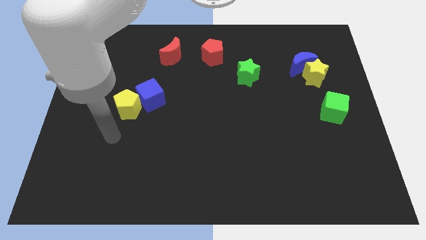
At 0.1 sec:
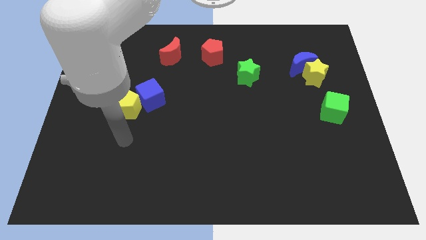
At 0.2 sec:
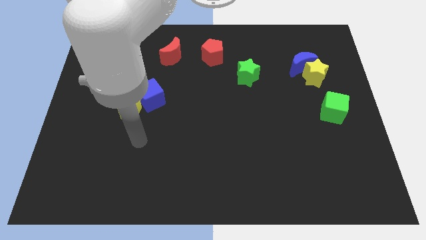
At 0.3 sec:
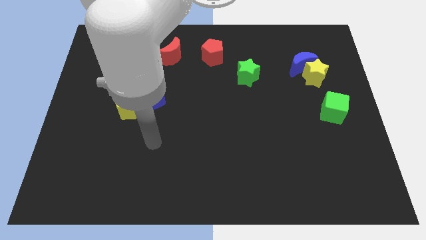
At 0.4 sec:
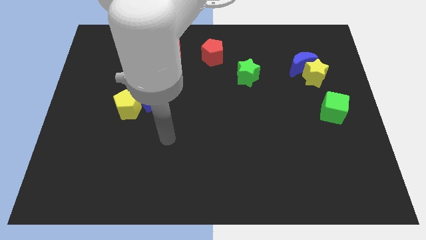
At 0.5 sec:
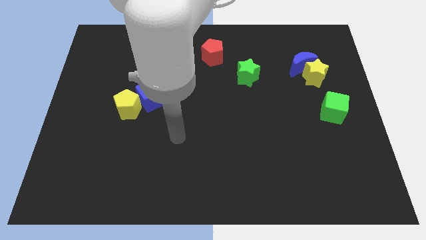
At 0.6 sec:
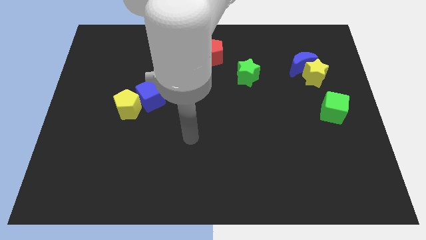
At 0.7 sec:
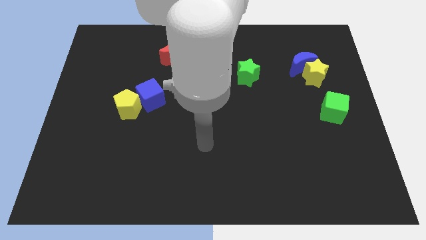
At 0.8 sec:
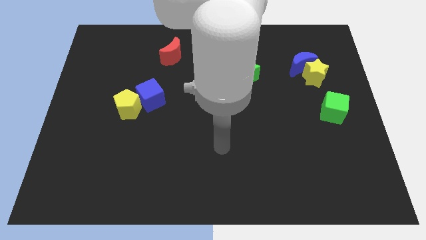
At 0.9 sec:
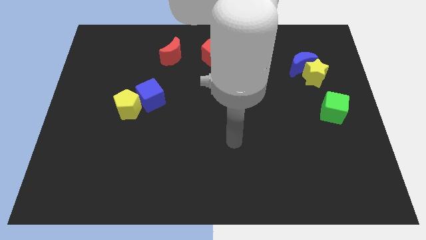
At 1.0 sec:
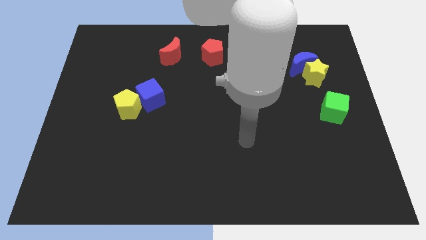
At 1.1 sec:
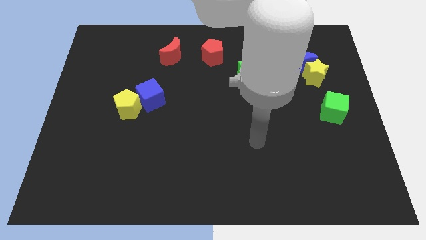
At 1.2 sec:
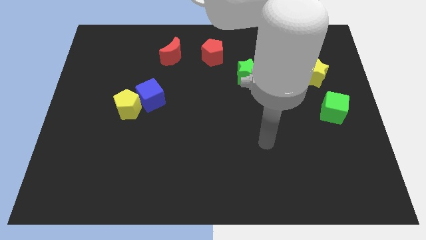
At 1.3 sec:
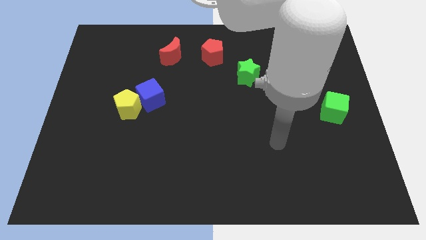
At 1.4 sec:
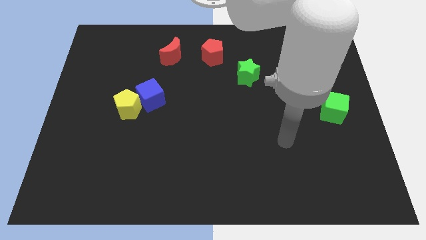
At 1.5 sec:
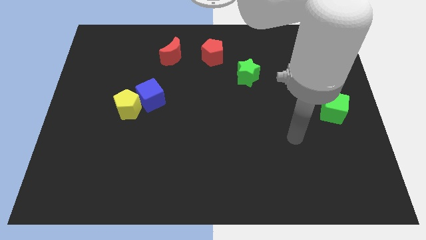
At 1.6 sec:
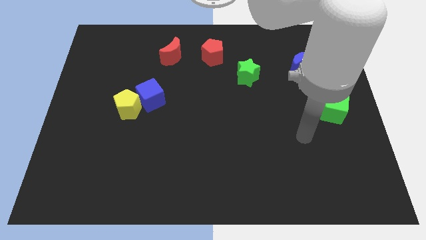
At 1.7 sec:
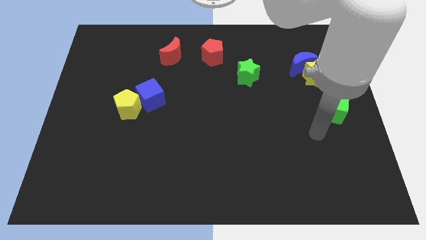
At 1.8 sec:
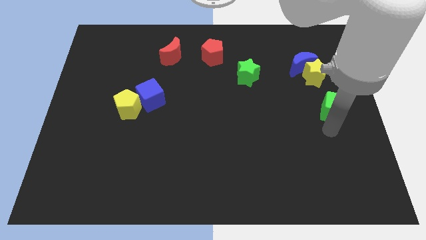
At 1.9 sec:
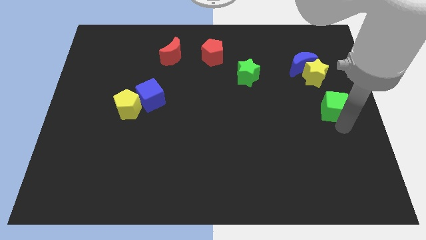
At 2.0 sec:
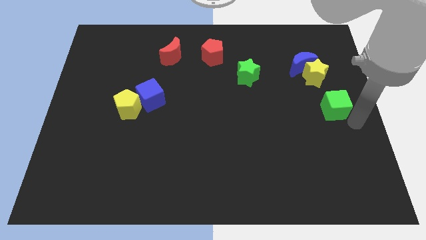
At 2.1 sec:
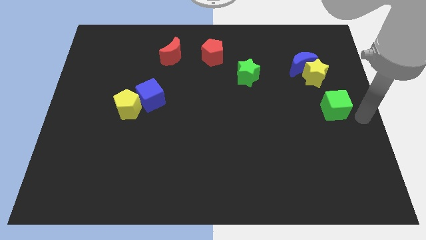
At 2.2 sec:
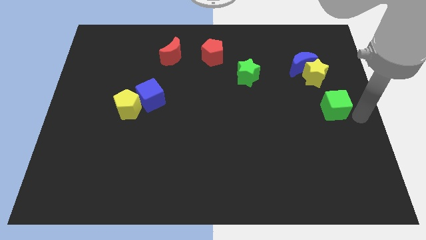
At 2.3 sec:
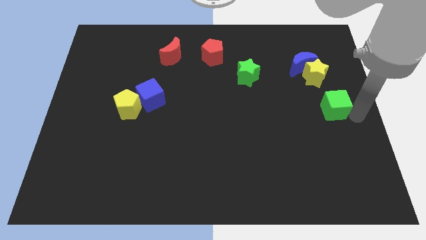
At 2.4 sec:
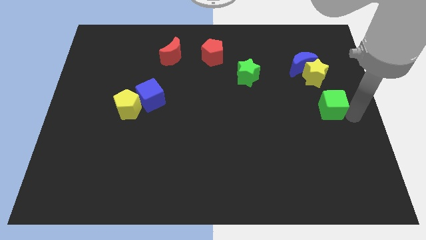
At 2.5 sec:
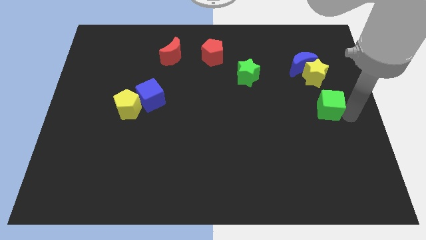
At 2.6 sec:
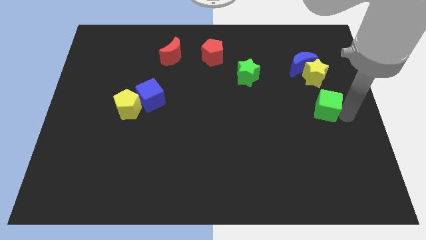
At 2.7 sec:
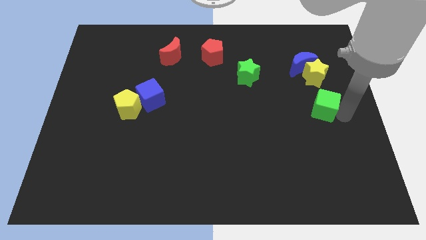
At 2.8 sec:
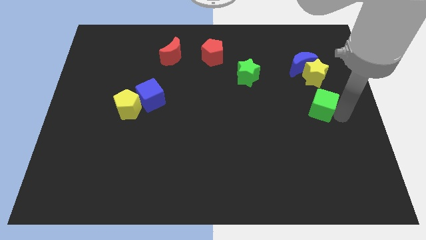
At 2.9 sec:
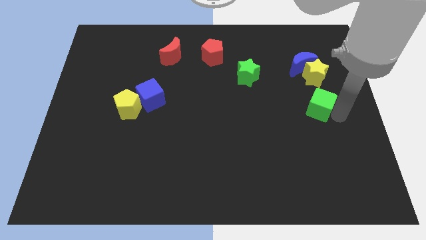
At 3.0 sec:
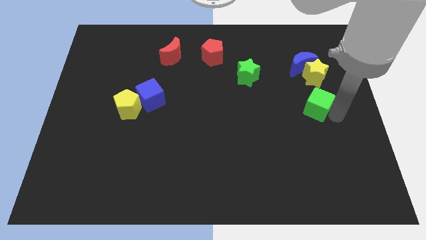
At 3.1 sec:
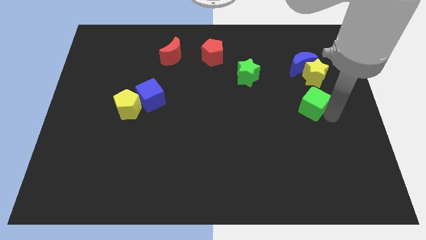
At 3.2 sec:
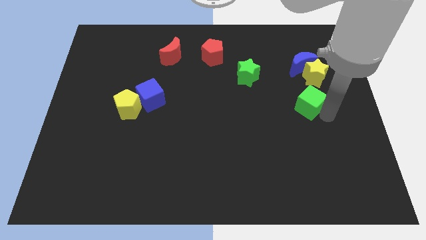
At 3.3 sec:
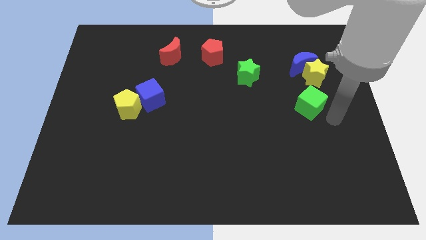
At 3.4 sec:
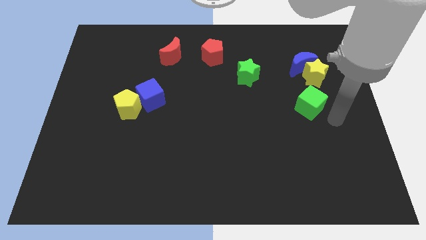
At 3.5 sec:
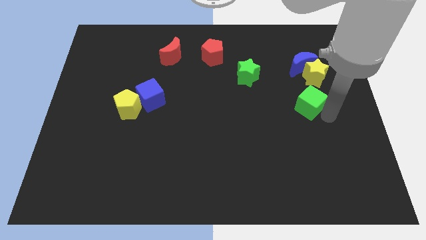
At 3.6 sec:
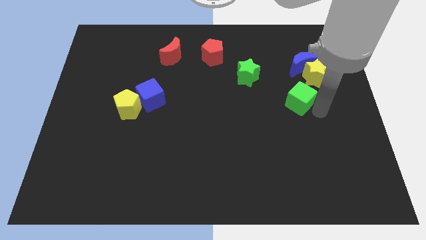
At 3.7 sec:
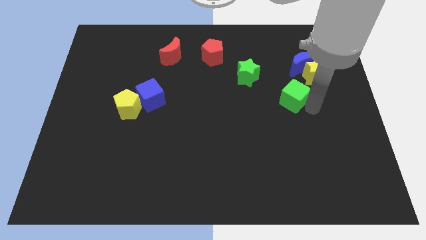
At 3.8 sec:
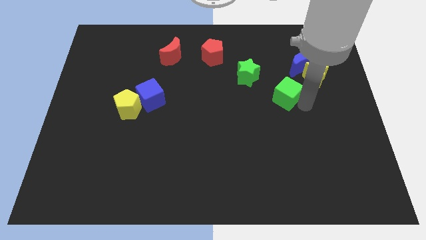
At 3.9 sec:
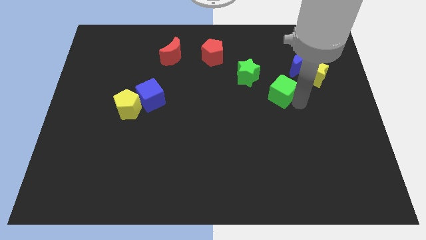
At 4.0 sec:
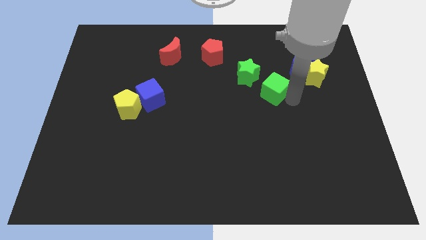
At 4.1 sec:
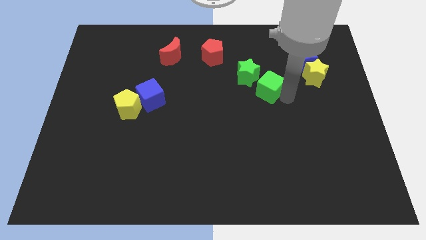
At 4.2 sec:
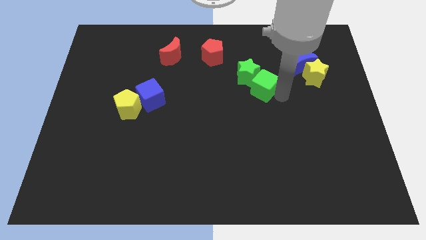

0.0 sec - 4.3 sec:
move the green cube to the green star

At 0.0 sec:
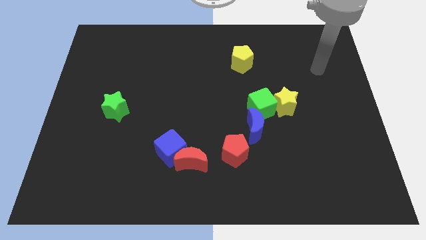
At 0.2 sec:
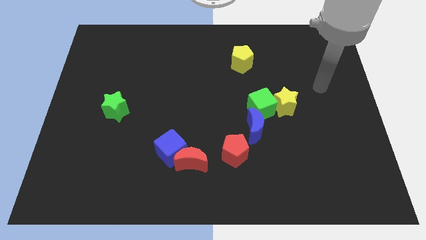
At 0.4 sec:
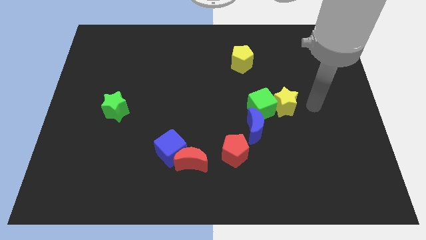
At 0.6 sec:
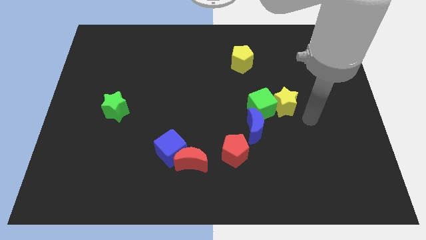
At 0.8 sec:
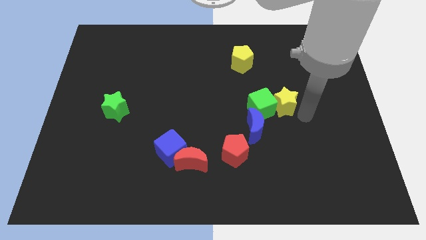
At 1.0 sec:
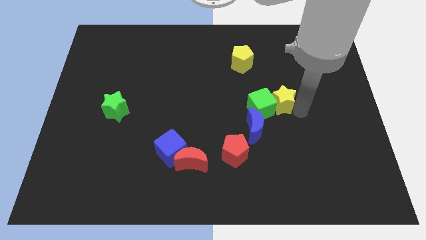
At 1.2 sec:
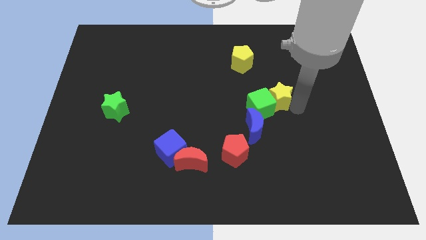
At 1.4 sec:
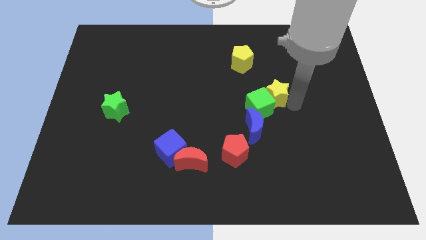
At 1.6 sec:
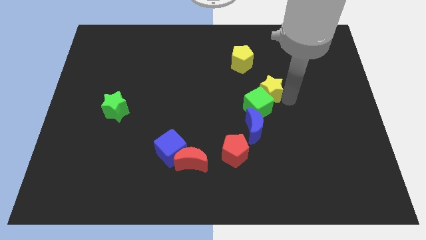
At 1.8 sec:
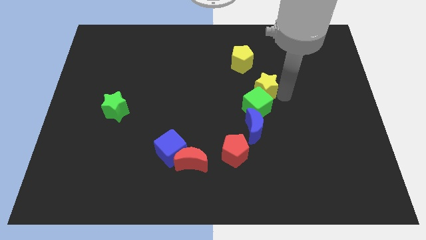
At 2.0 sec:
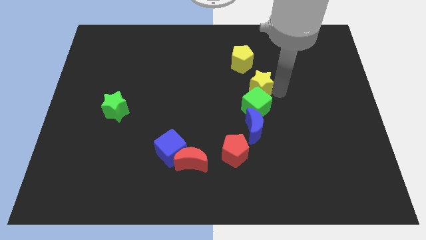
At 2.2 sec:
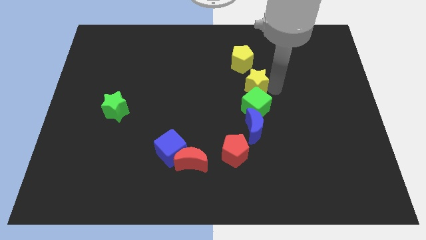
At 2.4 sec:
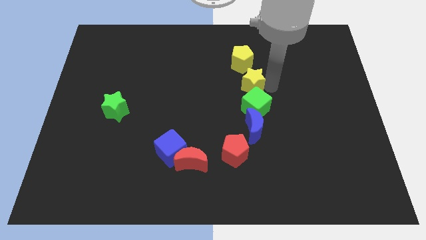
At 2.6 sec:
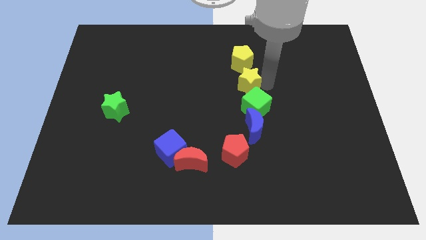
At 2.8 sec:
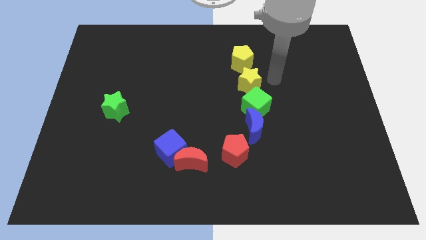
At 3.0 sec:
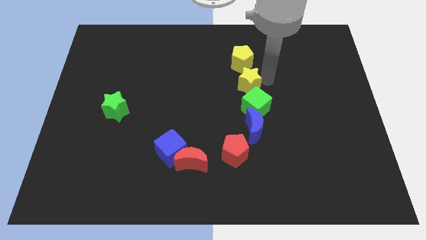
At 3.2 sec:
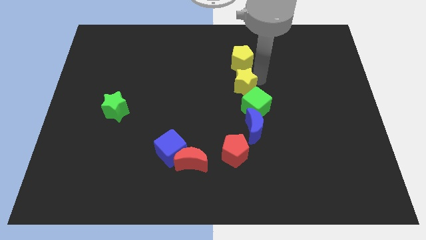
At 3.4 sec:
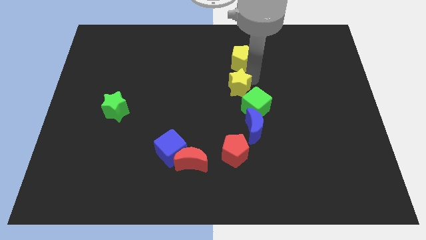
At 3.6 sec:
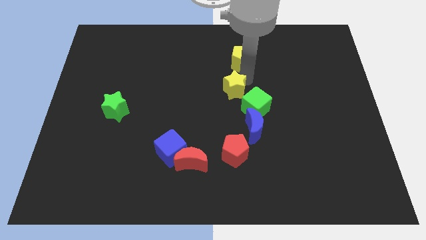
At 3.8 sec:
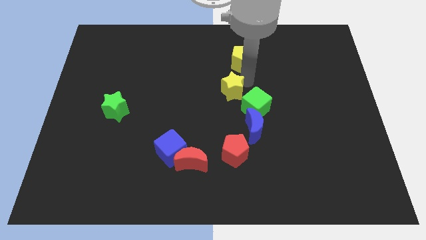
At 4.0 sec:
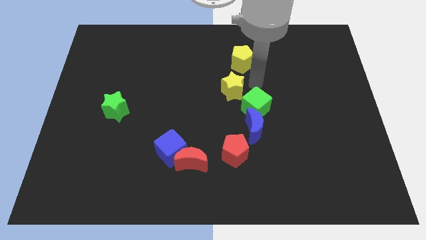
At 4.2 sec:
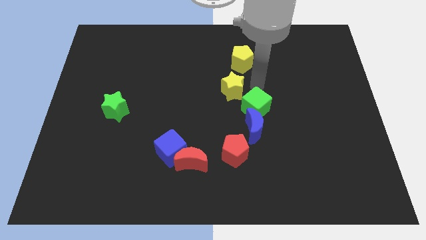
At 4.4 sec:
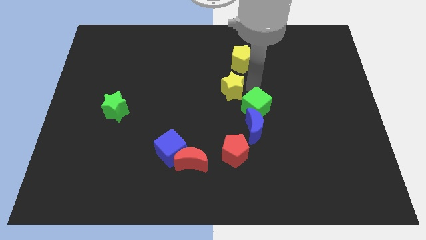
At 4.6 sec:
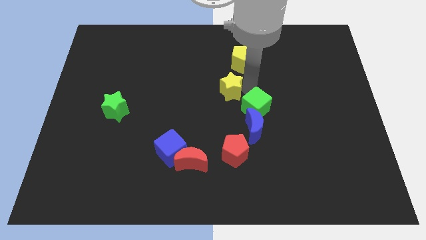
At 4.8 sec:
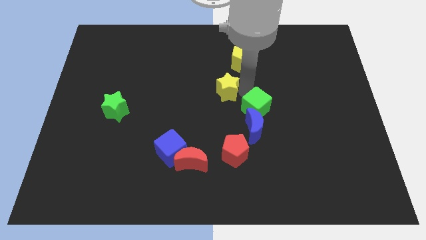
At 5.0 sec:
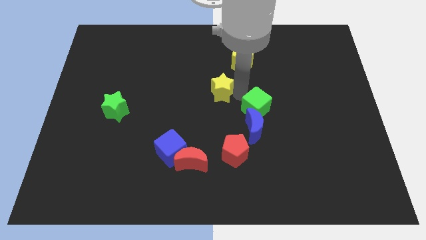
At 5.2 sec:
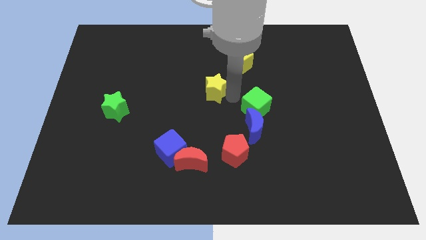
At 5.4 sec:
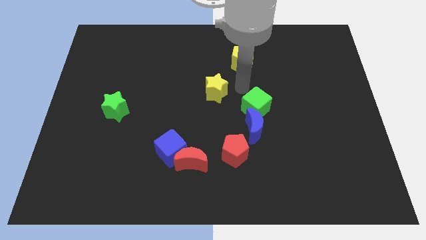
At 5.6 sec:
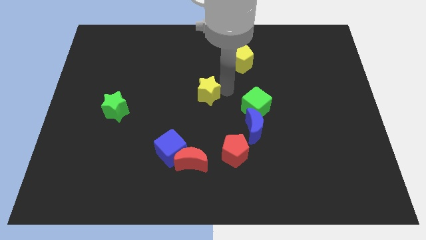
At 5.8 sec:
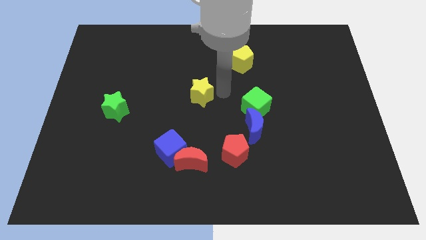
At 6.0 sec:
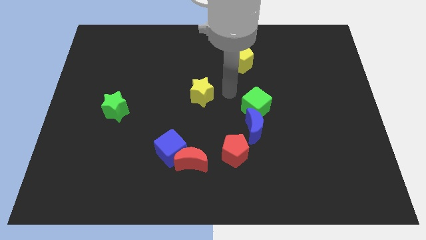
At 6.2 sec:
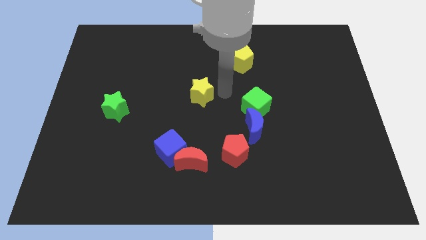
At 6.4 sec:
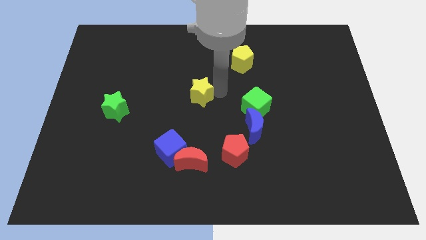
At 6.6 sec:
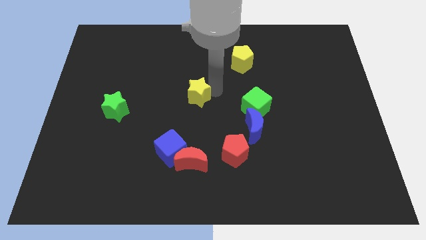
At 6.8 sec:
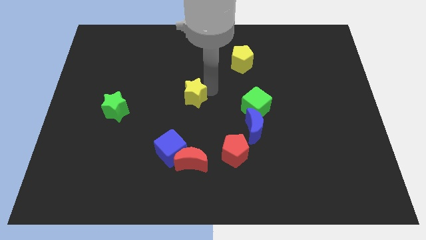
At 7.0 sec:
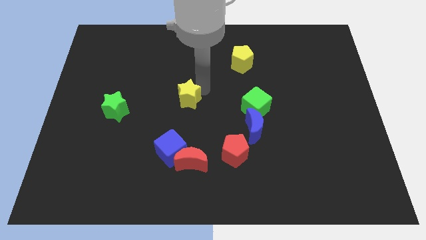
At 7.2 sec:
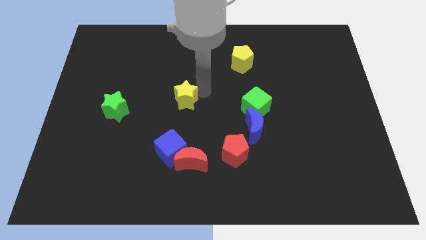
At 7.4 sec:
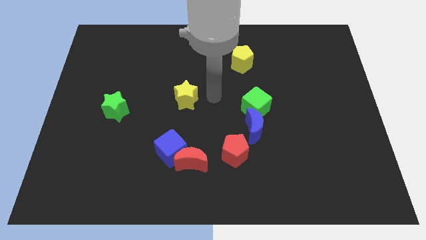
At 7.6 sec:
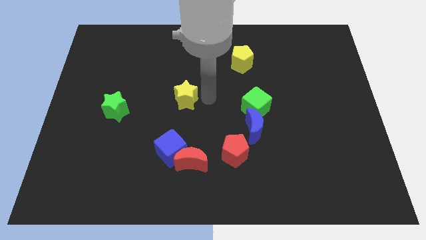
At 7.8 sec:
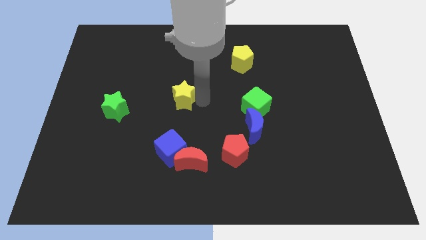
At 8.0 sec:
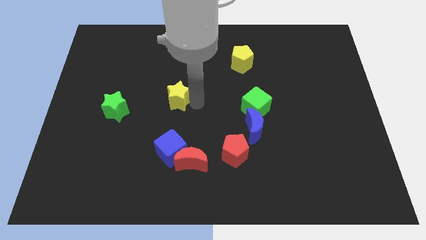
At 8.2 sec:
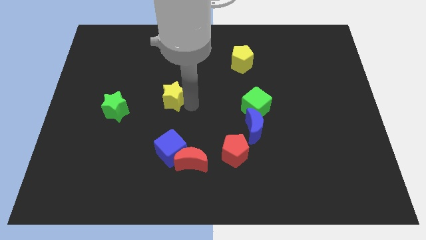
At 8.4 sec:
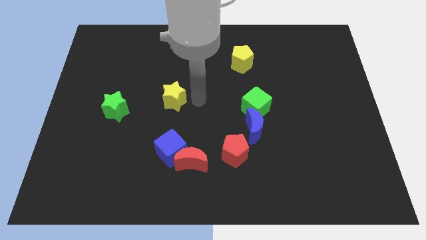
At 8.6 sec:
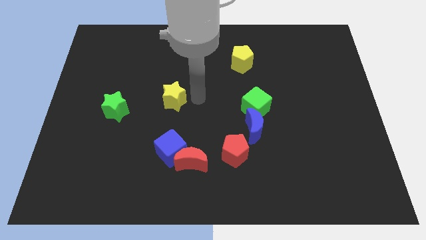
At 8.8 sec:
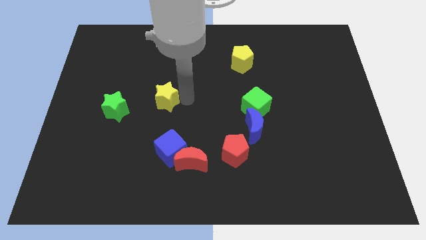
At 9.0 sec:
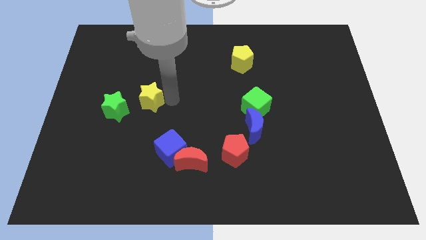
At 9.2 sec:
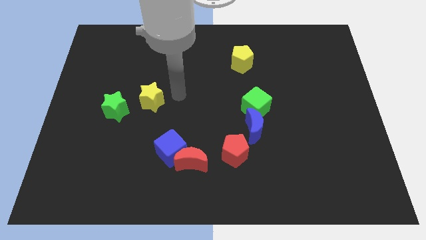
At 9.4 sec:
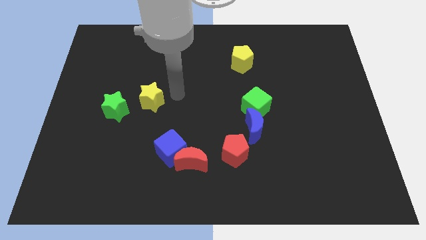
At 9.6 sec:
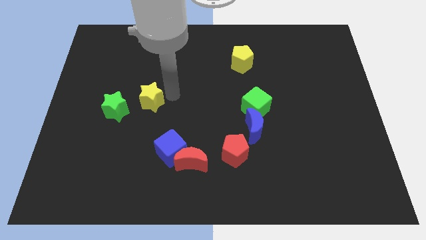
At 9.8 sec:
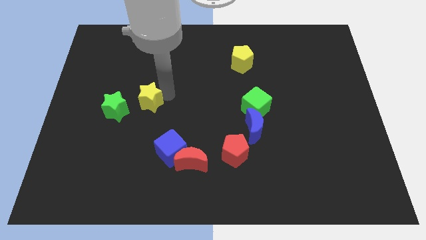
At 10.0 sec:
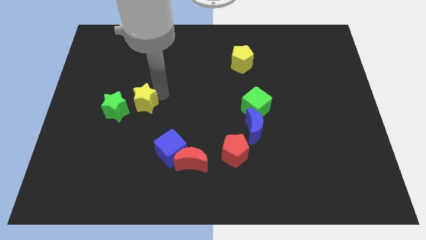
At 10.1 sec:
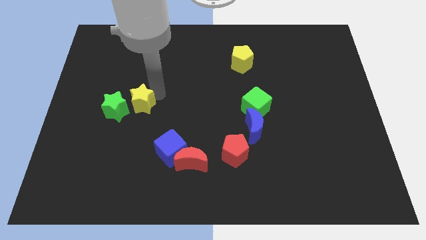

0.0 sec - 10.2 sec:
push the yellow star to the green star
